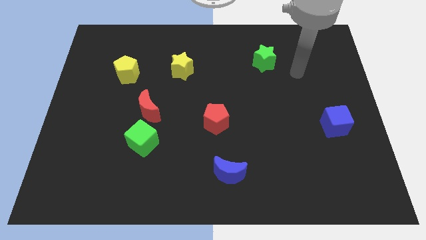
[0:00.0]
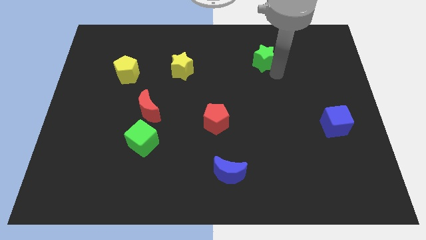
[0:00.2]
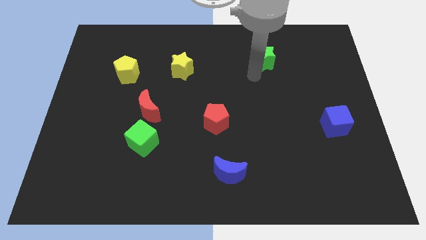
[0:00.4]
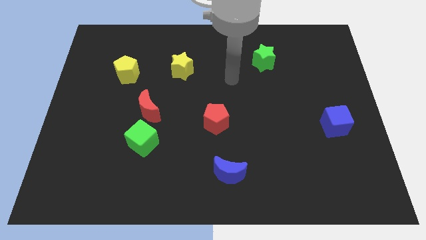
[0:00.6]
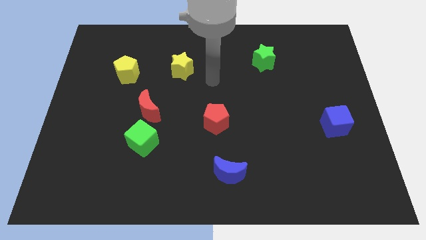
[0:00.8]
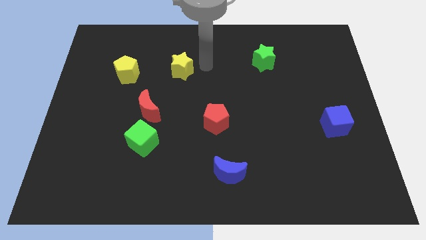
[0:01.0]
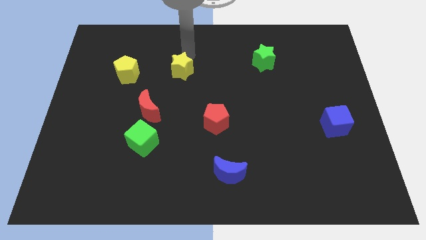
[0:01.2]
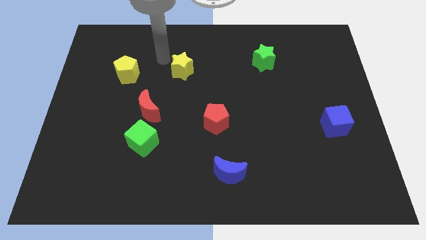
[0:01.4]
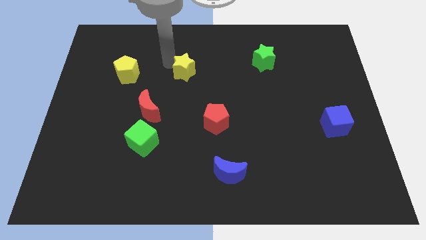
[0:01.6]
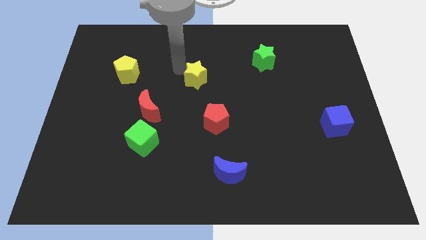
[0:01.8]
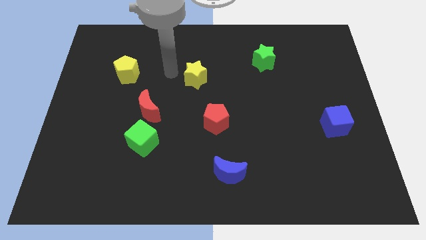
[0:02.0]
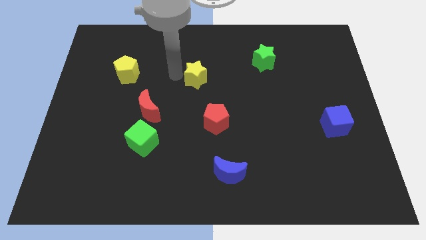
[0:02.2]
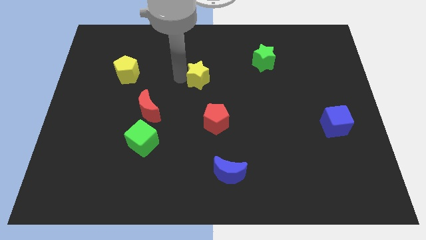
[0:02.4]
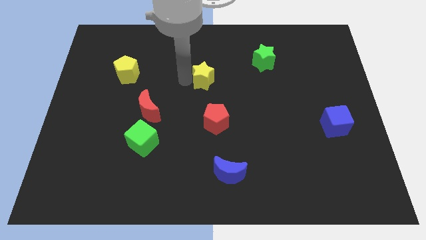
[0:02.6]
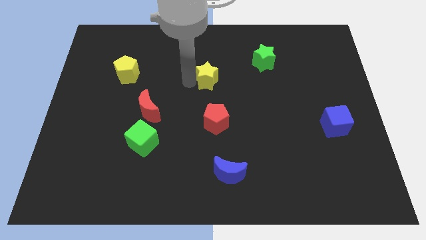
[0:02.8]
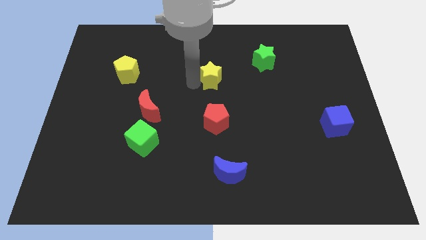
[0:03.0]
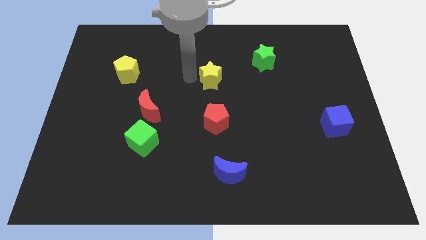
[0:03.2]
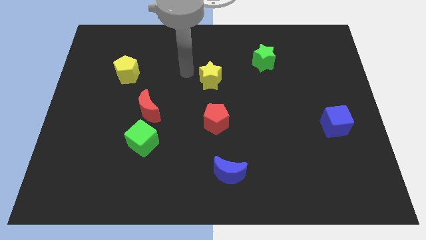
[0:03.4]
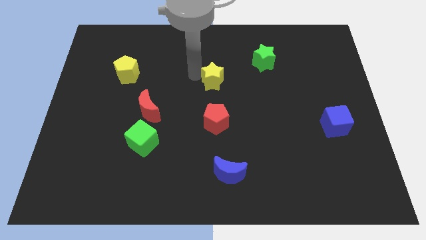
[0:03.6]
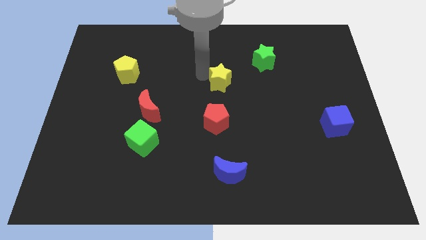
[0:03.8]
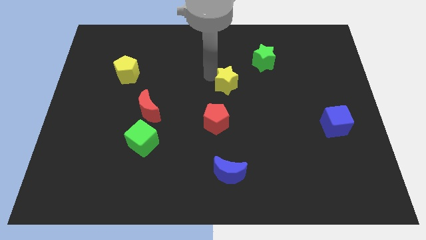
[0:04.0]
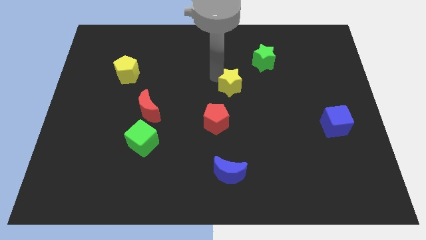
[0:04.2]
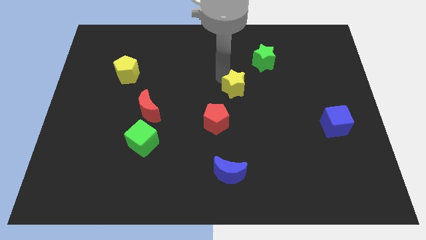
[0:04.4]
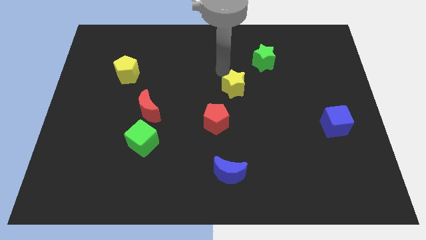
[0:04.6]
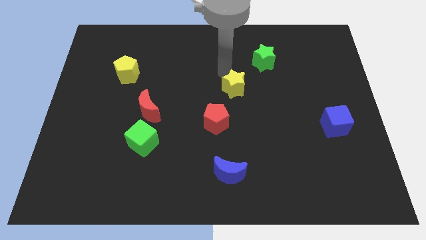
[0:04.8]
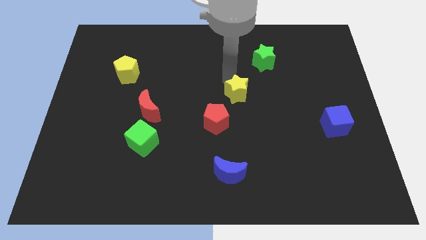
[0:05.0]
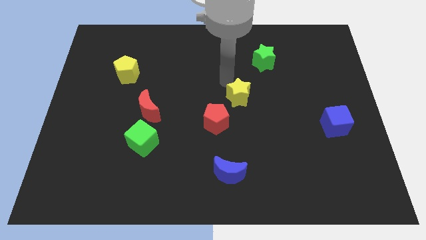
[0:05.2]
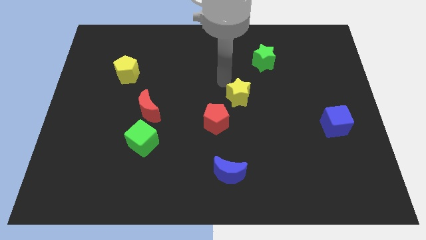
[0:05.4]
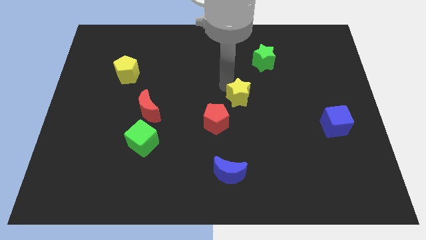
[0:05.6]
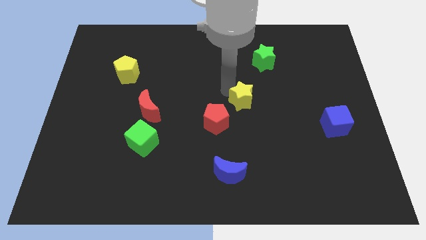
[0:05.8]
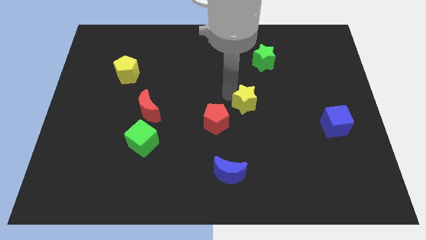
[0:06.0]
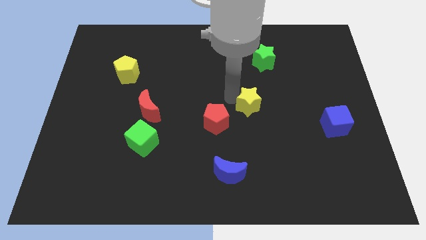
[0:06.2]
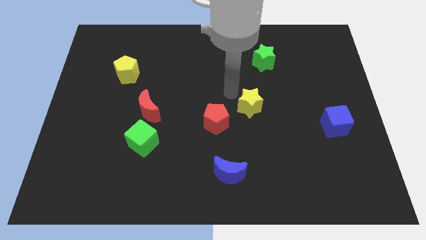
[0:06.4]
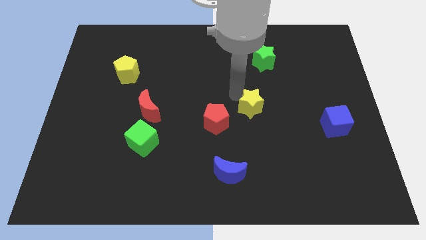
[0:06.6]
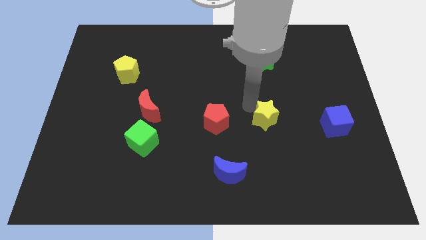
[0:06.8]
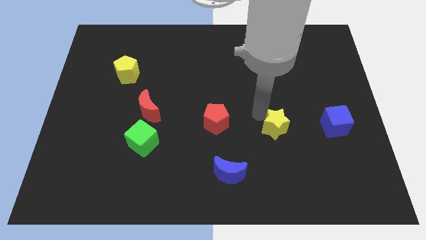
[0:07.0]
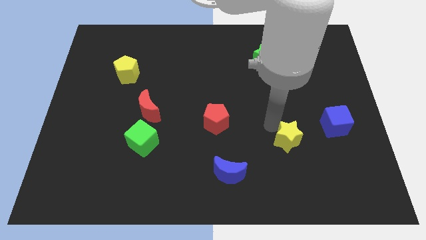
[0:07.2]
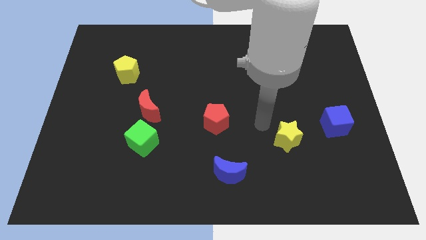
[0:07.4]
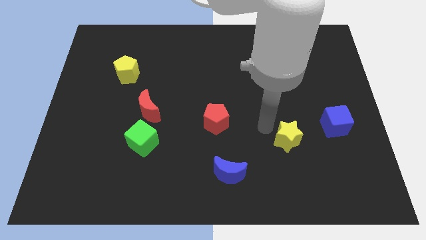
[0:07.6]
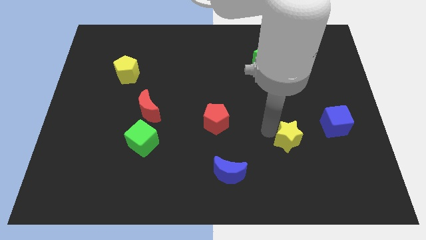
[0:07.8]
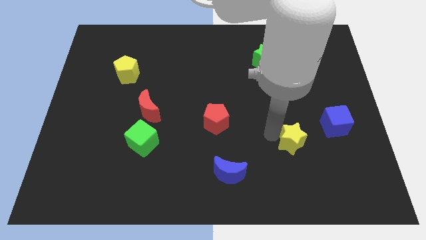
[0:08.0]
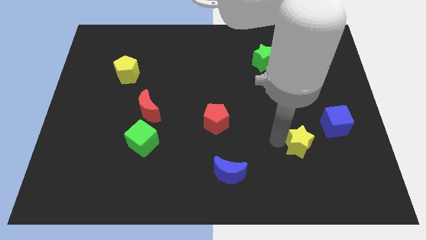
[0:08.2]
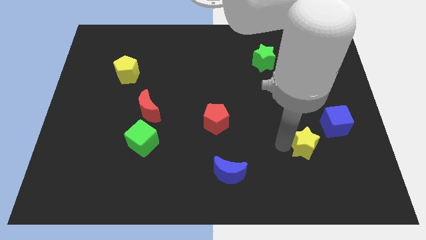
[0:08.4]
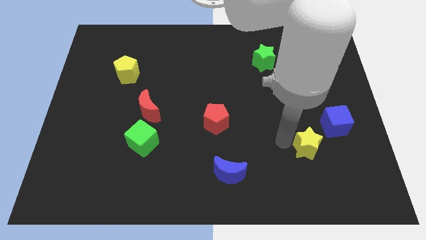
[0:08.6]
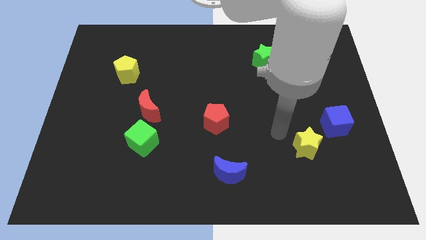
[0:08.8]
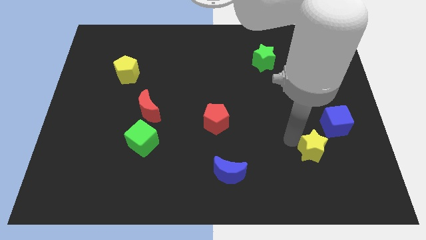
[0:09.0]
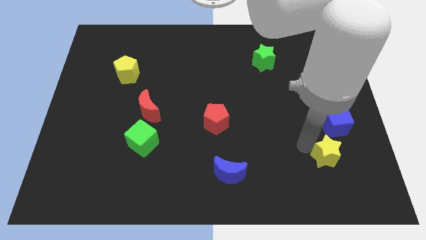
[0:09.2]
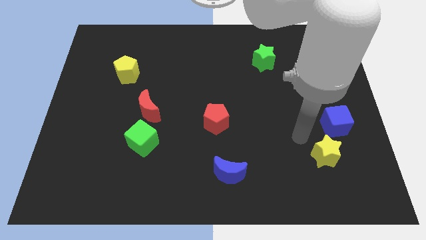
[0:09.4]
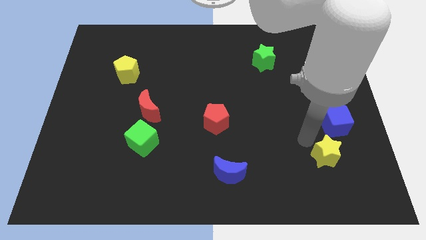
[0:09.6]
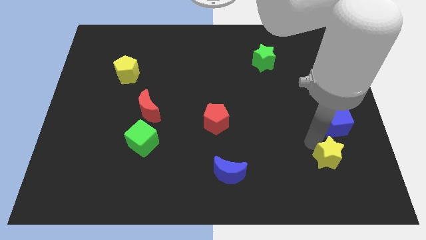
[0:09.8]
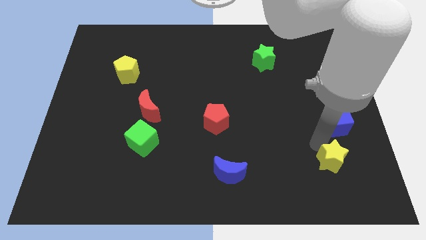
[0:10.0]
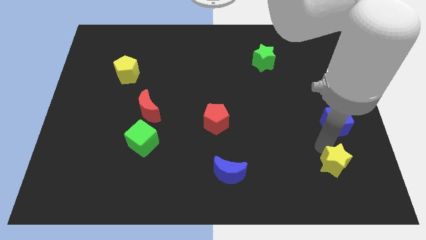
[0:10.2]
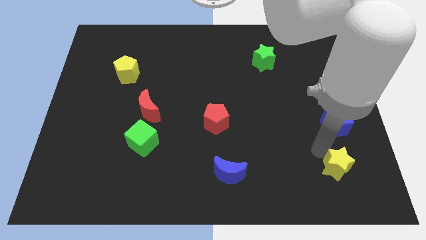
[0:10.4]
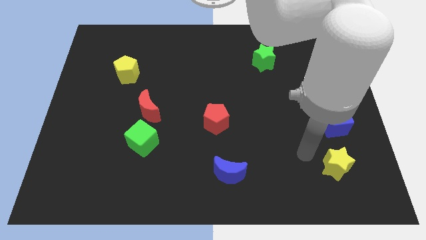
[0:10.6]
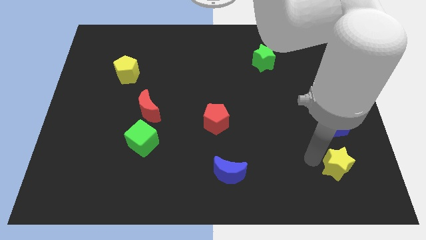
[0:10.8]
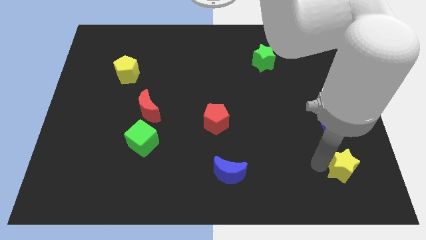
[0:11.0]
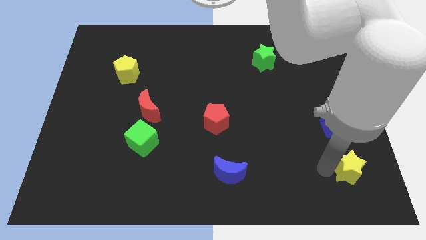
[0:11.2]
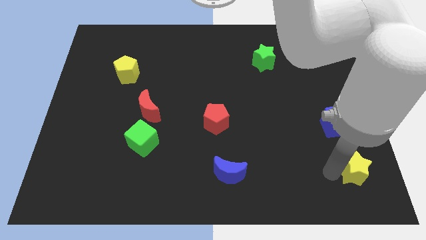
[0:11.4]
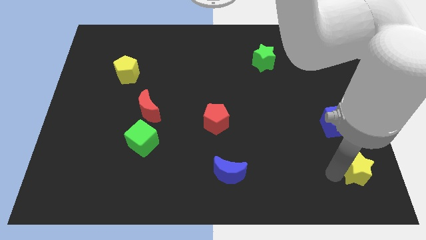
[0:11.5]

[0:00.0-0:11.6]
move the yellow star to the lower right corner

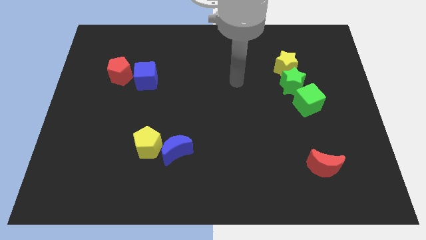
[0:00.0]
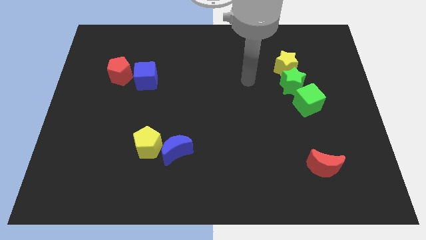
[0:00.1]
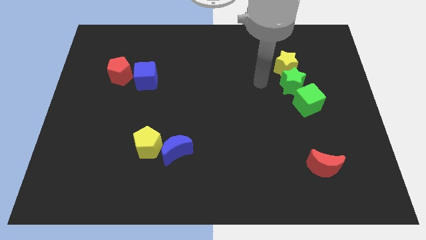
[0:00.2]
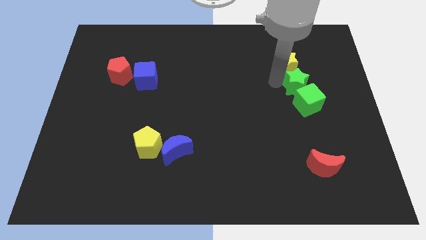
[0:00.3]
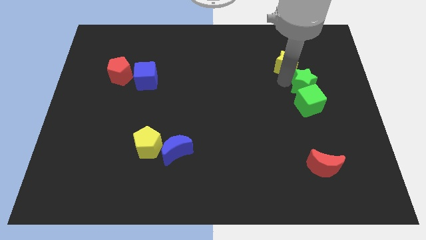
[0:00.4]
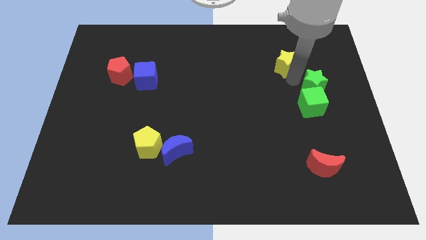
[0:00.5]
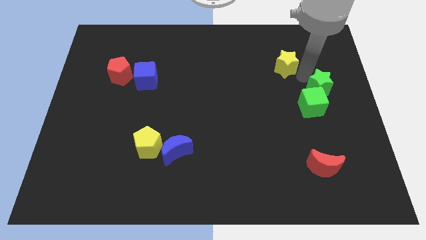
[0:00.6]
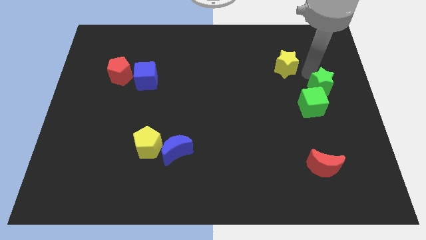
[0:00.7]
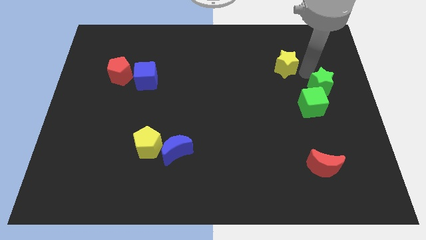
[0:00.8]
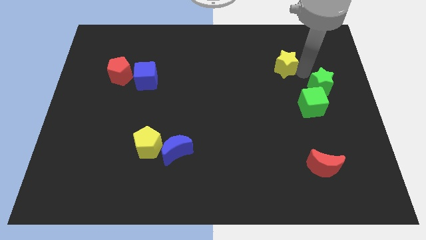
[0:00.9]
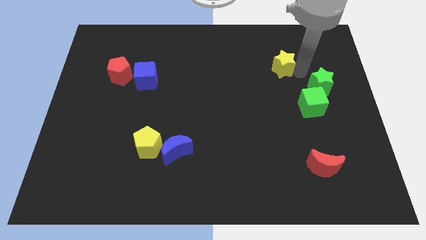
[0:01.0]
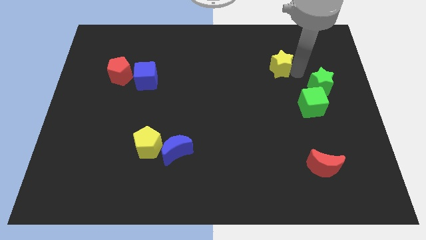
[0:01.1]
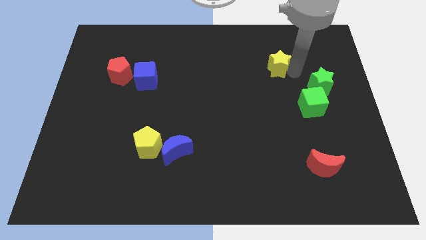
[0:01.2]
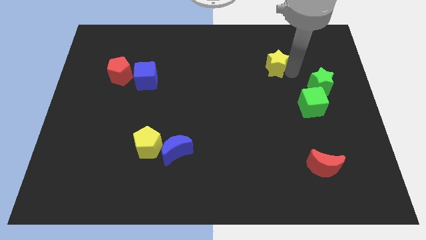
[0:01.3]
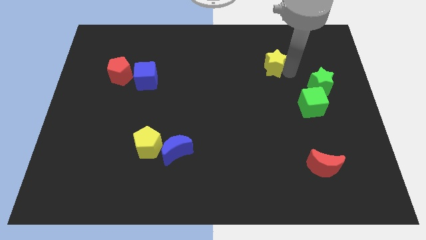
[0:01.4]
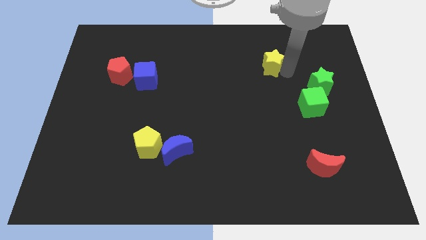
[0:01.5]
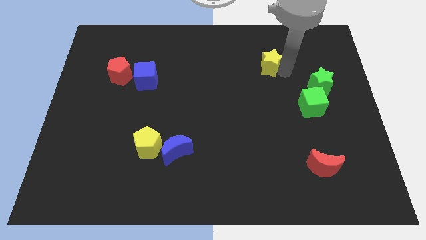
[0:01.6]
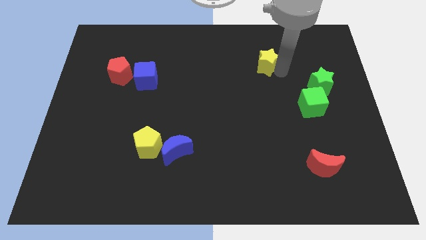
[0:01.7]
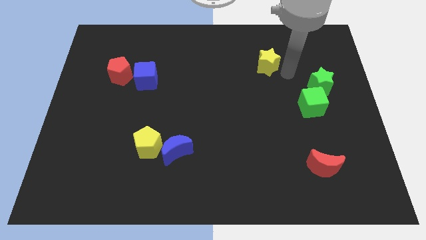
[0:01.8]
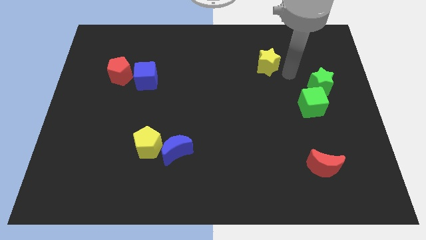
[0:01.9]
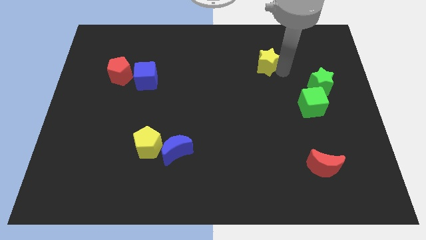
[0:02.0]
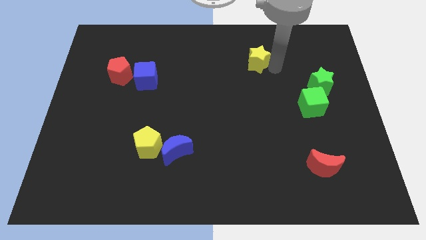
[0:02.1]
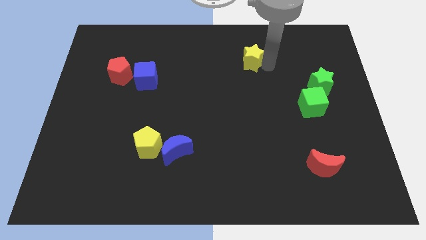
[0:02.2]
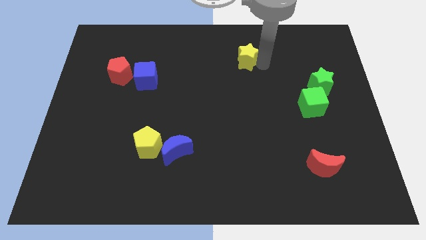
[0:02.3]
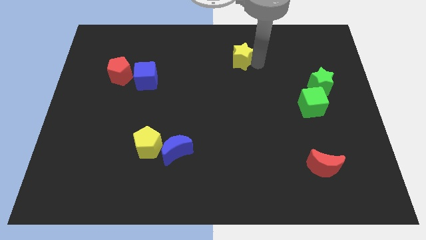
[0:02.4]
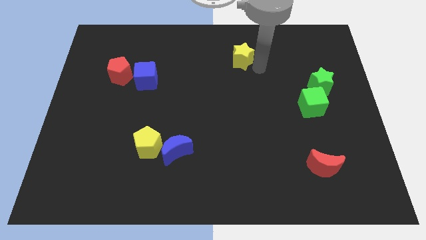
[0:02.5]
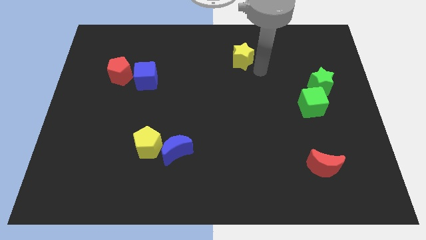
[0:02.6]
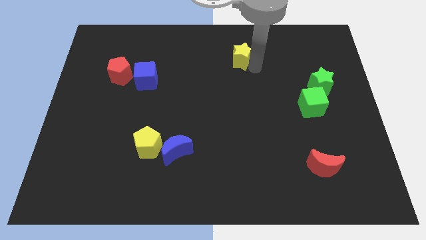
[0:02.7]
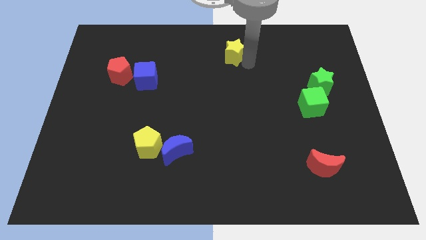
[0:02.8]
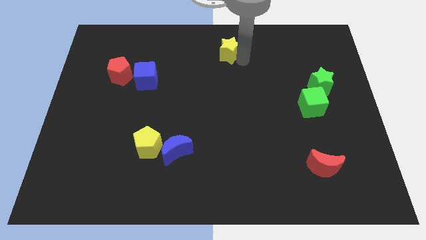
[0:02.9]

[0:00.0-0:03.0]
move the yellow star to the top
